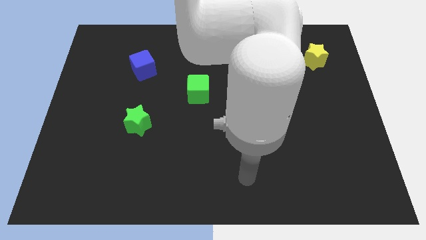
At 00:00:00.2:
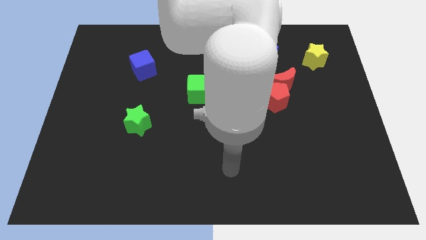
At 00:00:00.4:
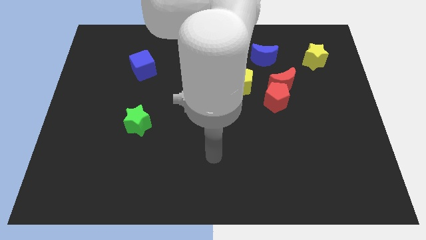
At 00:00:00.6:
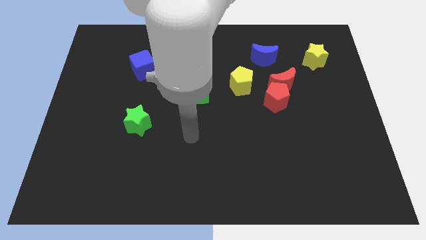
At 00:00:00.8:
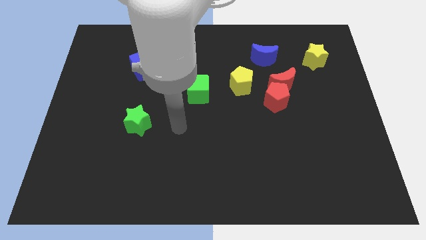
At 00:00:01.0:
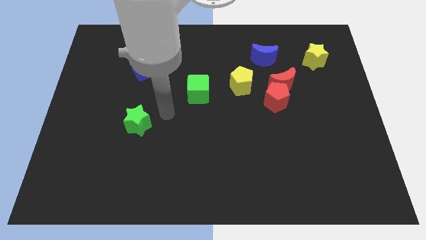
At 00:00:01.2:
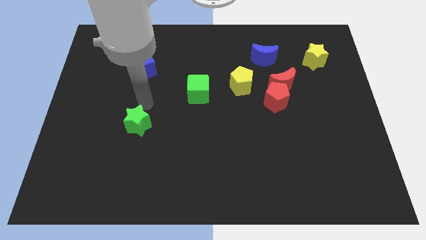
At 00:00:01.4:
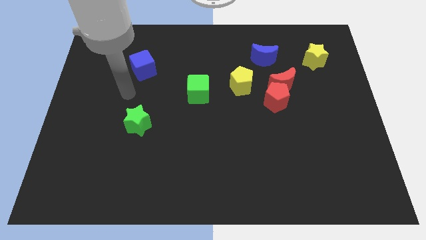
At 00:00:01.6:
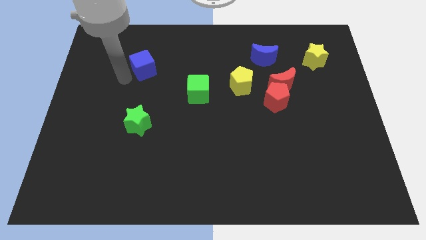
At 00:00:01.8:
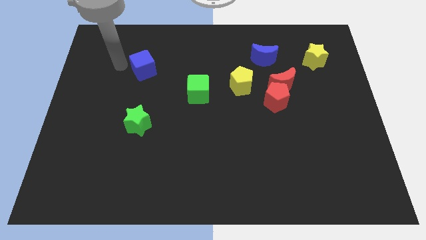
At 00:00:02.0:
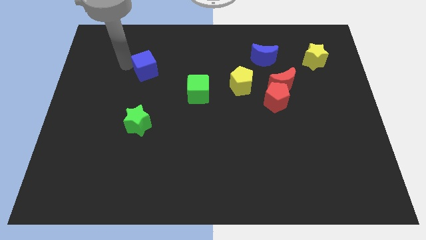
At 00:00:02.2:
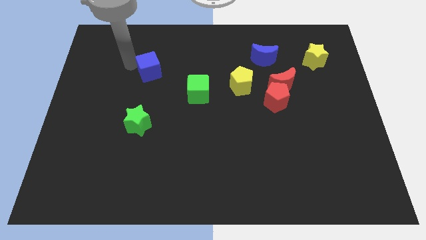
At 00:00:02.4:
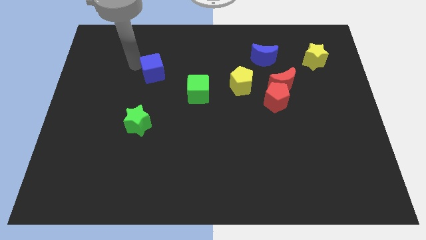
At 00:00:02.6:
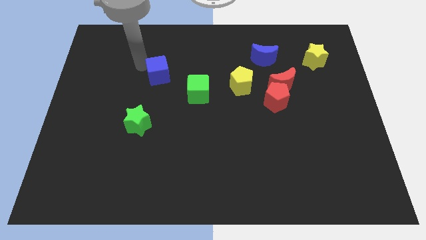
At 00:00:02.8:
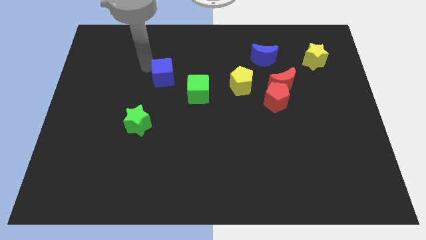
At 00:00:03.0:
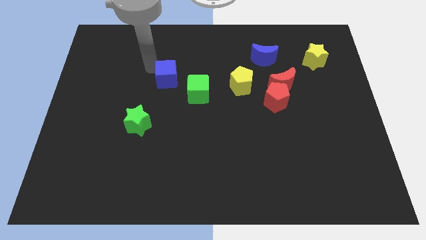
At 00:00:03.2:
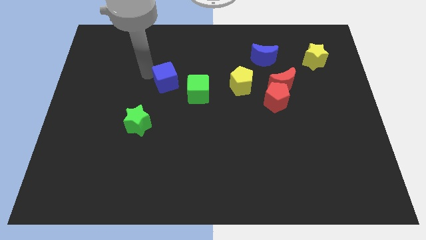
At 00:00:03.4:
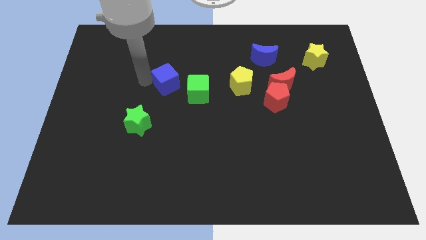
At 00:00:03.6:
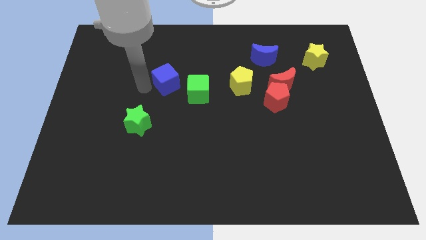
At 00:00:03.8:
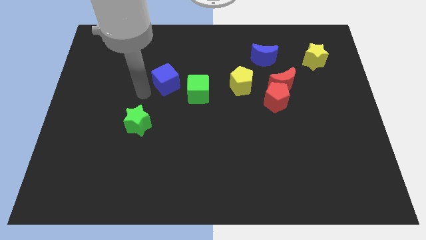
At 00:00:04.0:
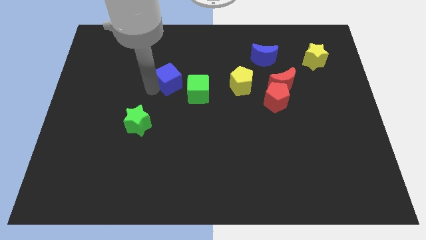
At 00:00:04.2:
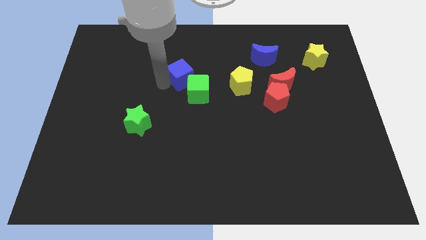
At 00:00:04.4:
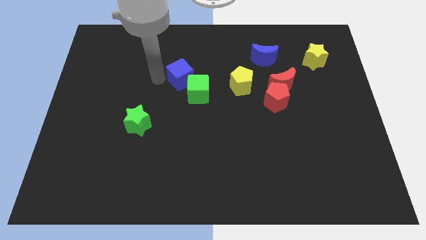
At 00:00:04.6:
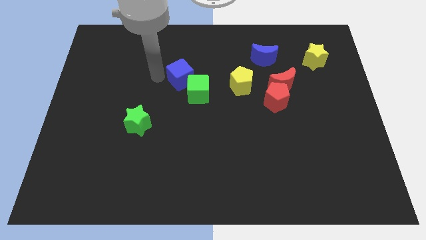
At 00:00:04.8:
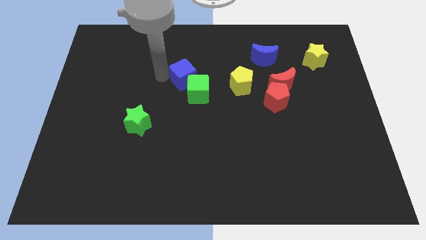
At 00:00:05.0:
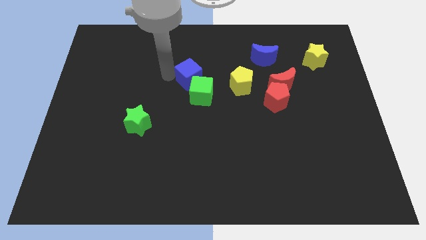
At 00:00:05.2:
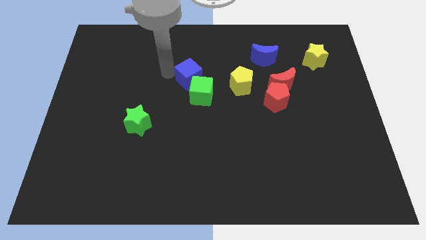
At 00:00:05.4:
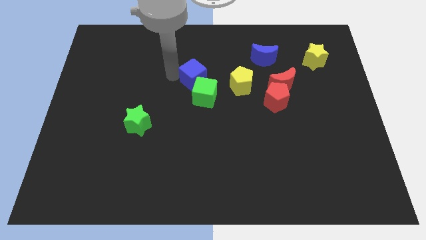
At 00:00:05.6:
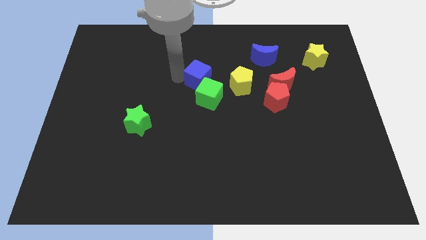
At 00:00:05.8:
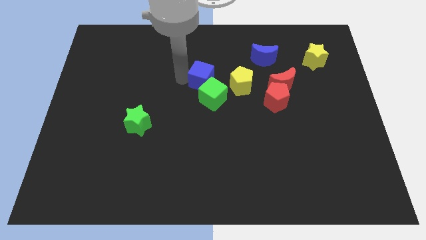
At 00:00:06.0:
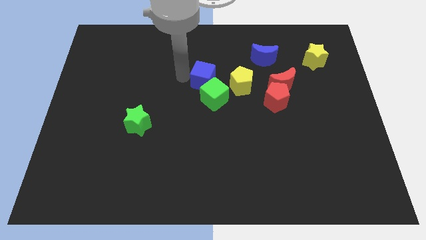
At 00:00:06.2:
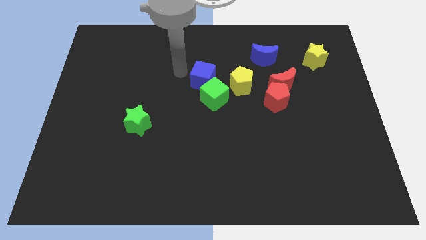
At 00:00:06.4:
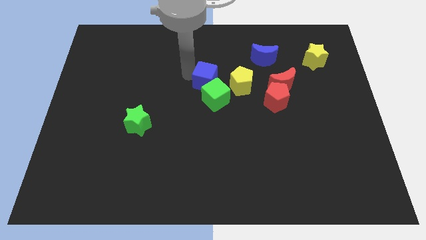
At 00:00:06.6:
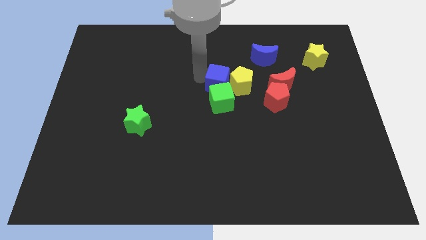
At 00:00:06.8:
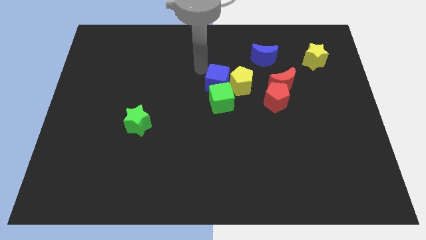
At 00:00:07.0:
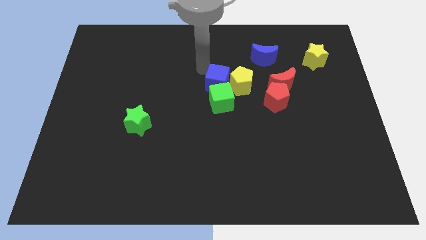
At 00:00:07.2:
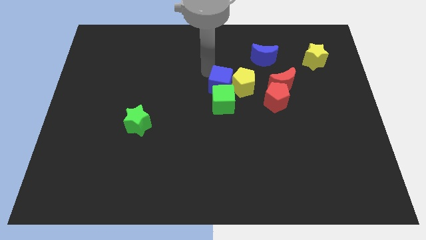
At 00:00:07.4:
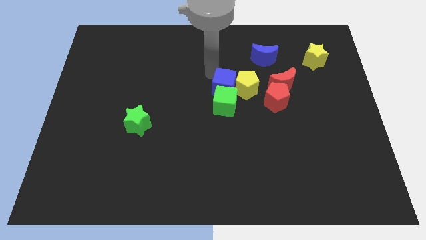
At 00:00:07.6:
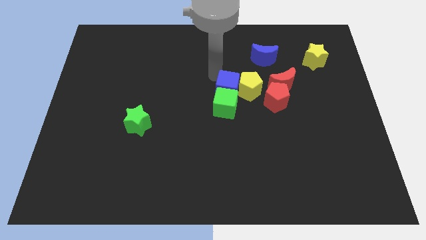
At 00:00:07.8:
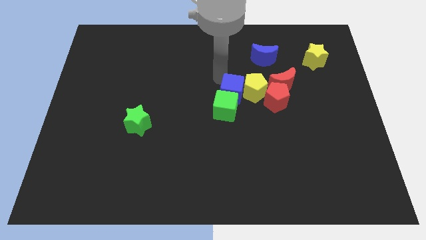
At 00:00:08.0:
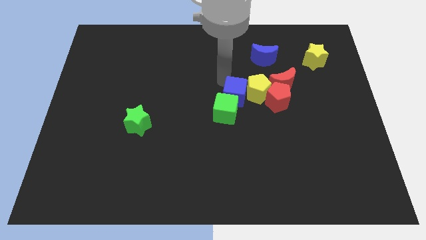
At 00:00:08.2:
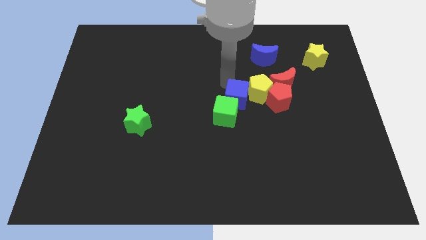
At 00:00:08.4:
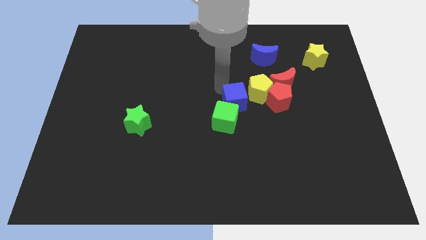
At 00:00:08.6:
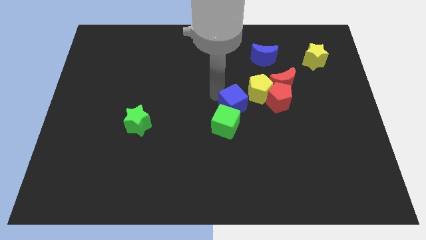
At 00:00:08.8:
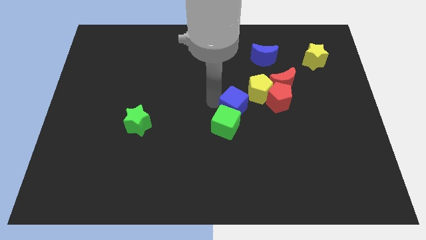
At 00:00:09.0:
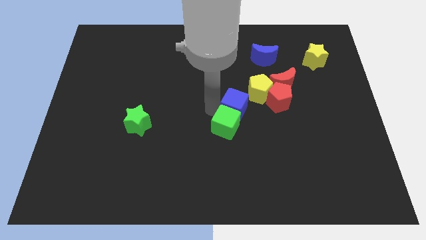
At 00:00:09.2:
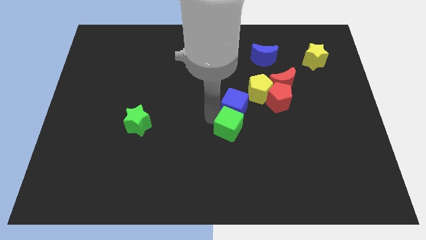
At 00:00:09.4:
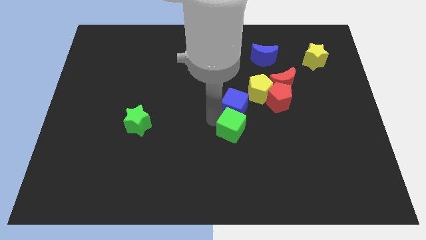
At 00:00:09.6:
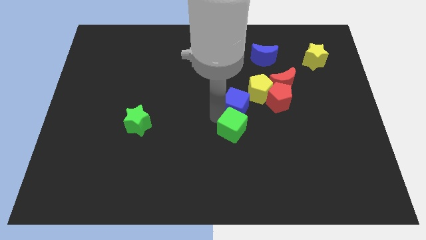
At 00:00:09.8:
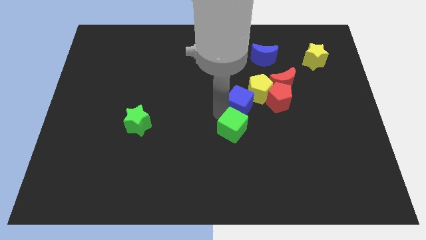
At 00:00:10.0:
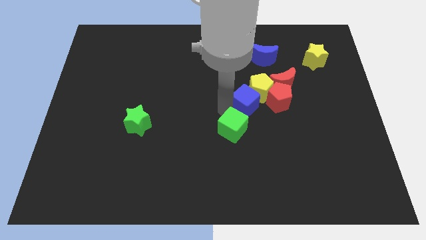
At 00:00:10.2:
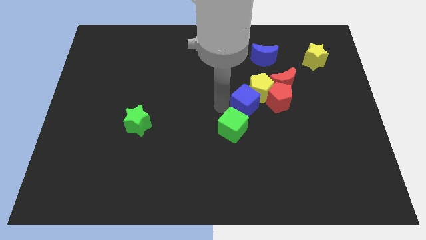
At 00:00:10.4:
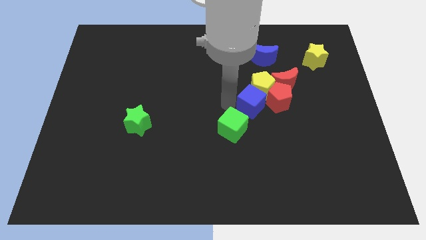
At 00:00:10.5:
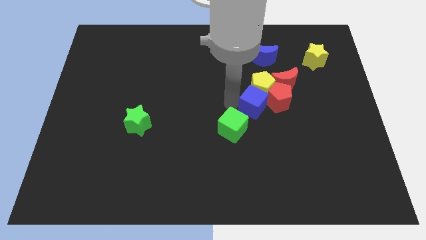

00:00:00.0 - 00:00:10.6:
slide the blue cube to the red pentagon

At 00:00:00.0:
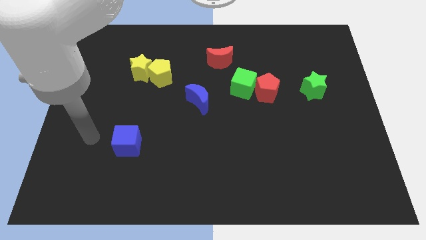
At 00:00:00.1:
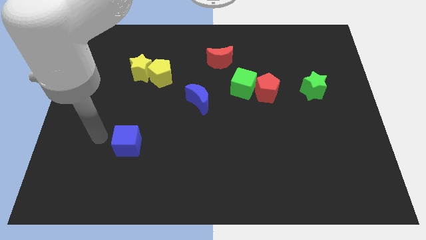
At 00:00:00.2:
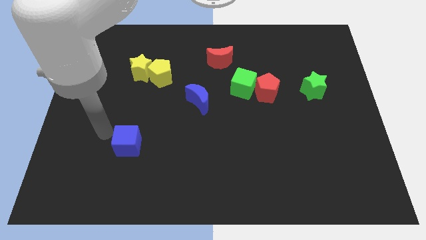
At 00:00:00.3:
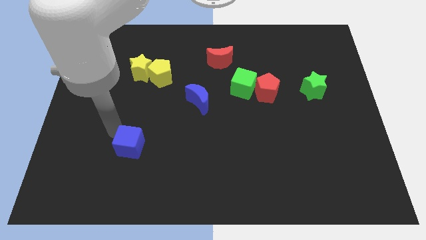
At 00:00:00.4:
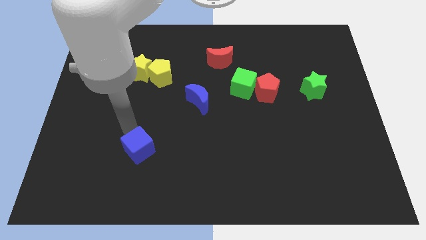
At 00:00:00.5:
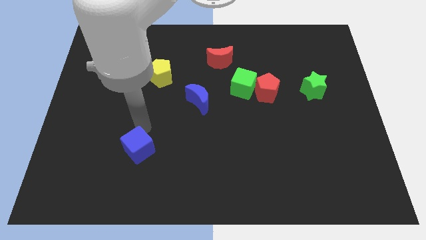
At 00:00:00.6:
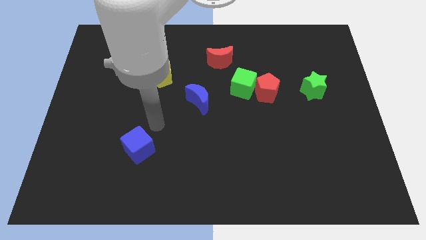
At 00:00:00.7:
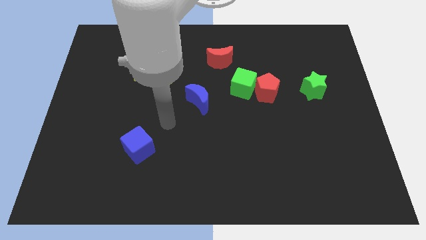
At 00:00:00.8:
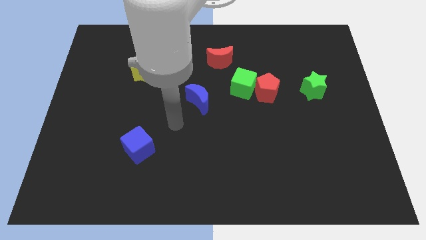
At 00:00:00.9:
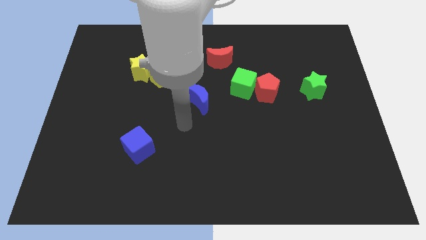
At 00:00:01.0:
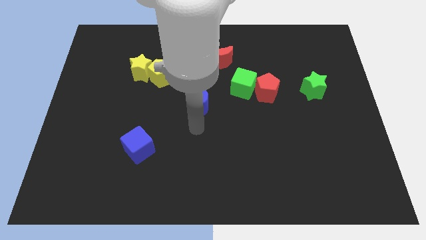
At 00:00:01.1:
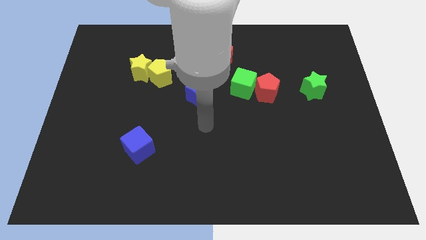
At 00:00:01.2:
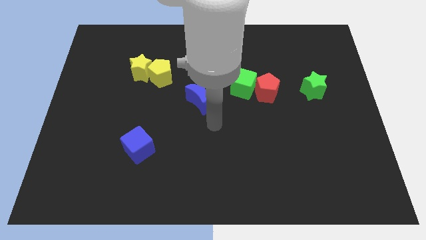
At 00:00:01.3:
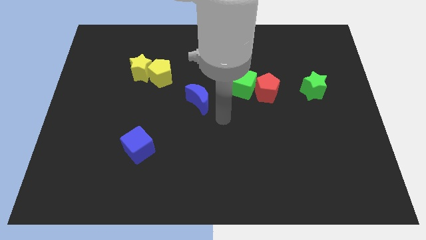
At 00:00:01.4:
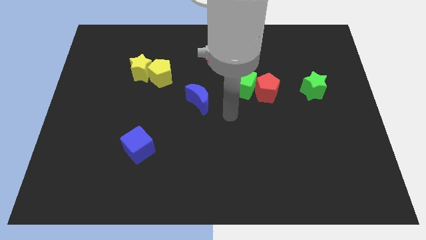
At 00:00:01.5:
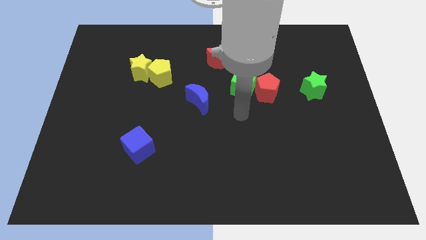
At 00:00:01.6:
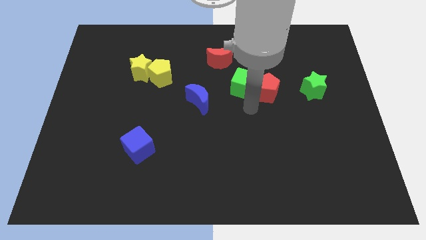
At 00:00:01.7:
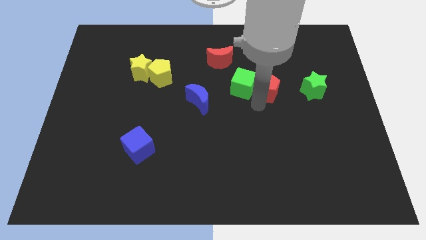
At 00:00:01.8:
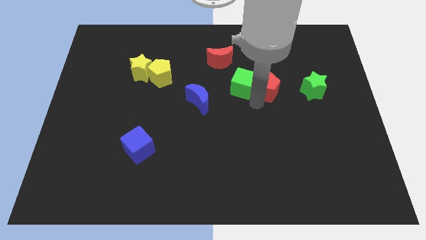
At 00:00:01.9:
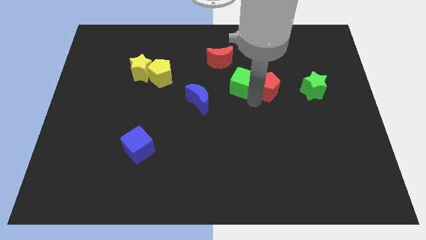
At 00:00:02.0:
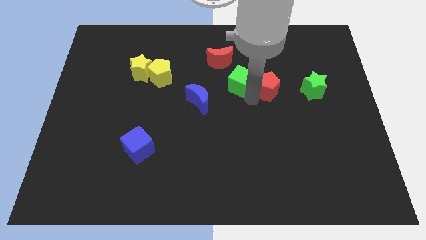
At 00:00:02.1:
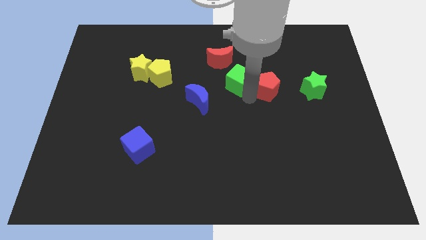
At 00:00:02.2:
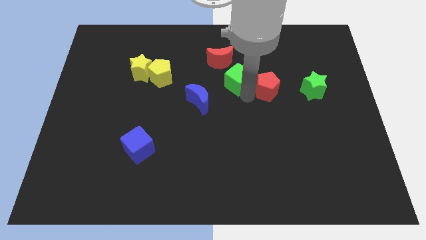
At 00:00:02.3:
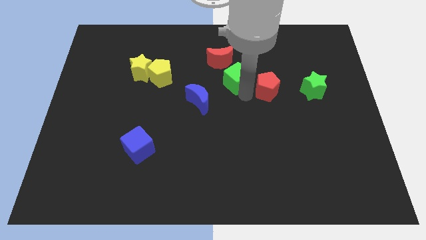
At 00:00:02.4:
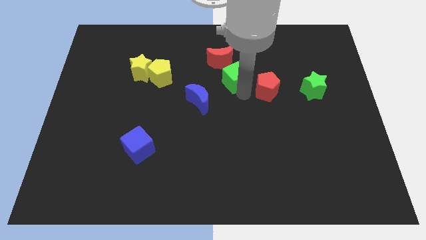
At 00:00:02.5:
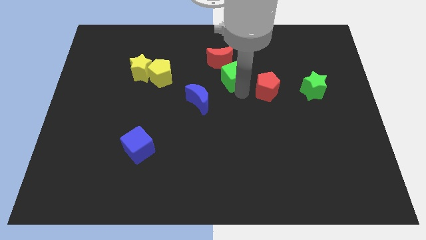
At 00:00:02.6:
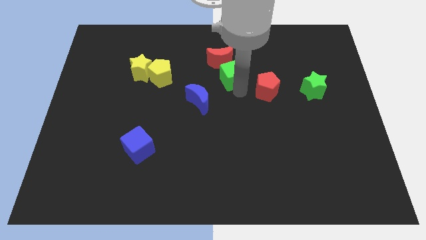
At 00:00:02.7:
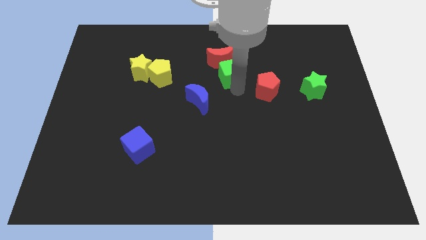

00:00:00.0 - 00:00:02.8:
move the green cube towards the red moon
